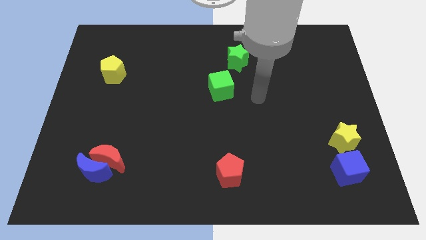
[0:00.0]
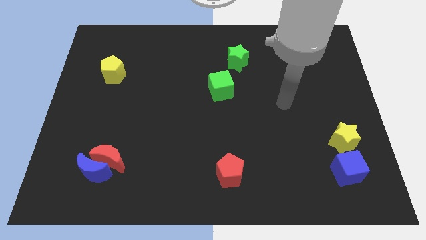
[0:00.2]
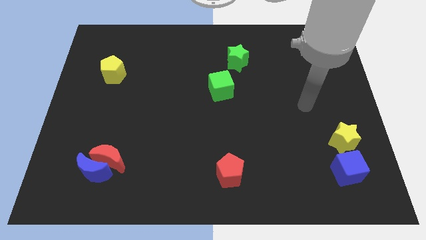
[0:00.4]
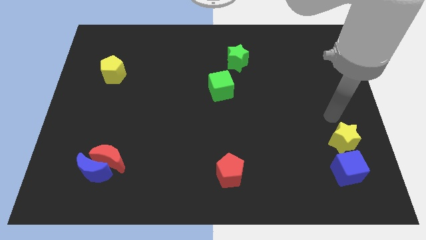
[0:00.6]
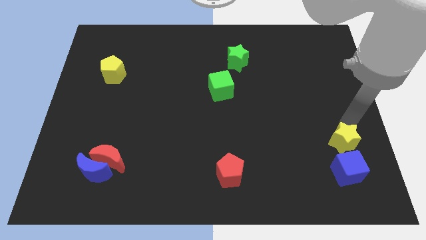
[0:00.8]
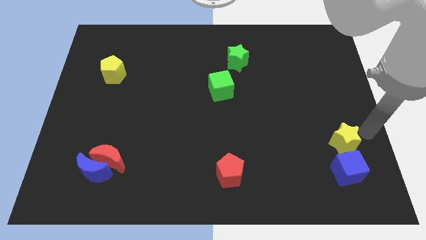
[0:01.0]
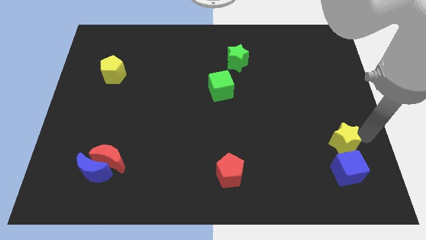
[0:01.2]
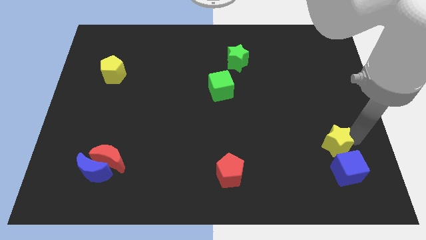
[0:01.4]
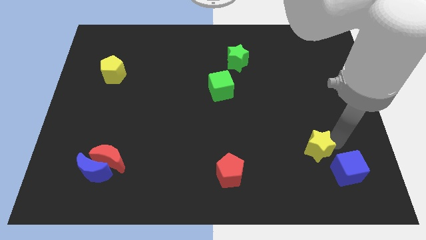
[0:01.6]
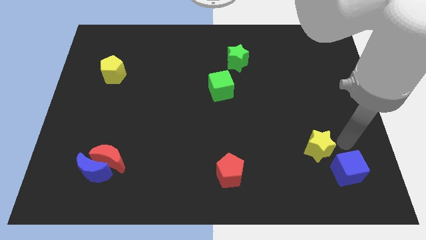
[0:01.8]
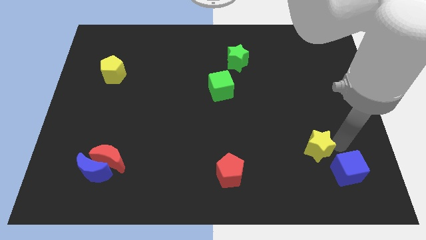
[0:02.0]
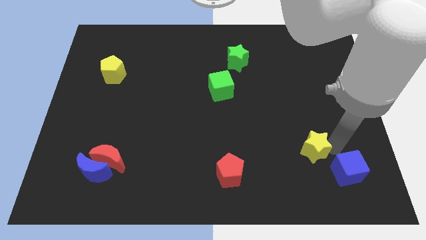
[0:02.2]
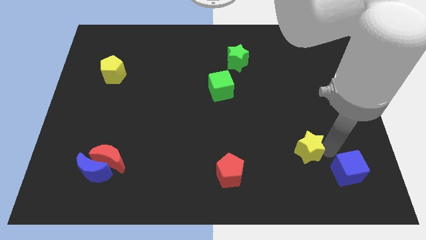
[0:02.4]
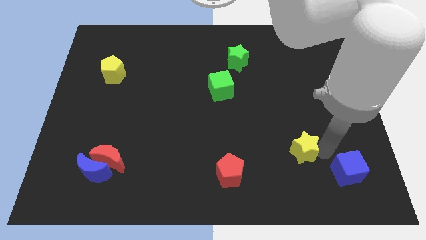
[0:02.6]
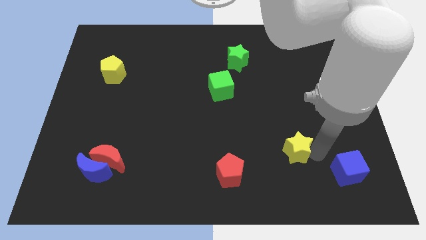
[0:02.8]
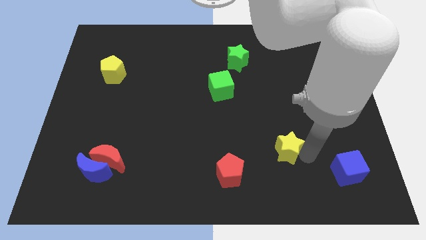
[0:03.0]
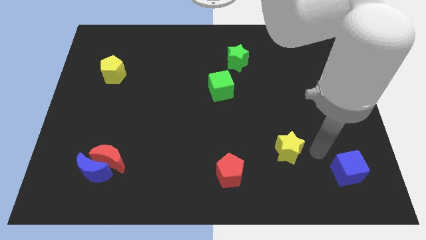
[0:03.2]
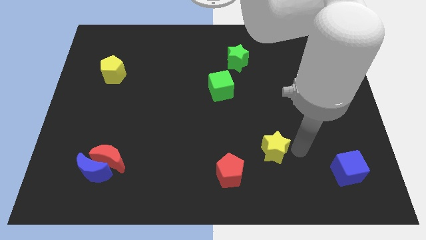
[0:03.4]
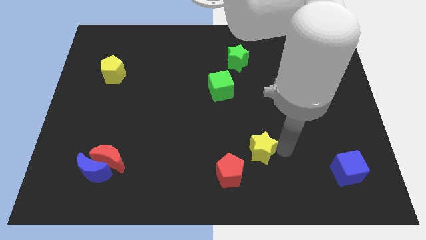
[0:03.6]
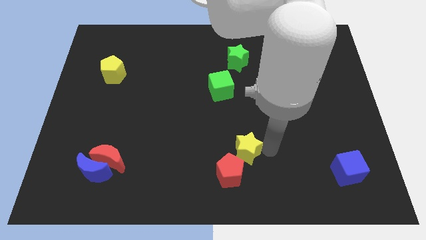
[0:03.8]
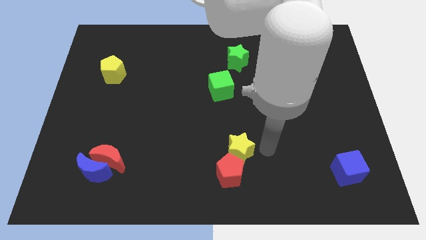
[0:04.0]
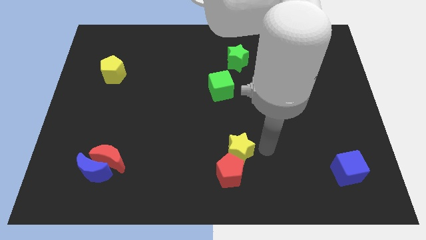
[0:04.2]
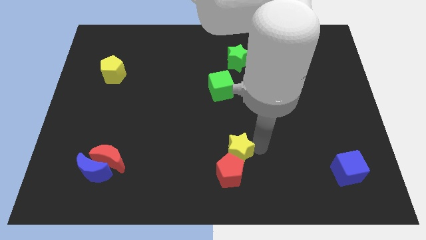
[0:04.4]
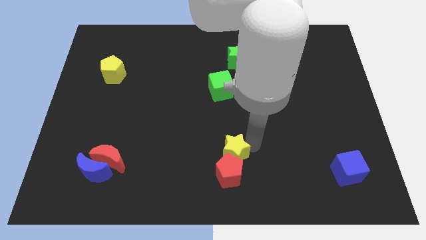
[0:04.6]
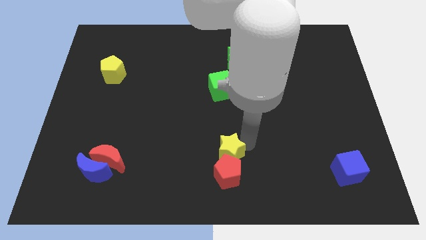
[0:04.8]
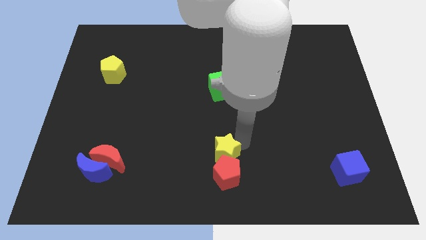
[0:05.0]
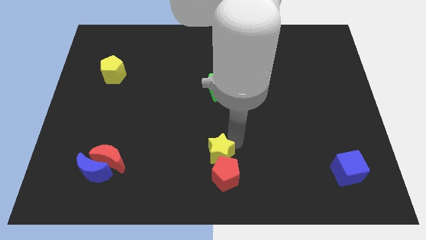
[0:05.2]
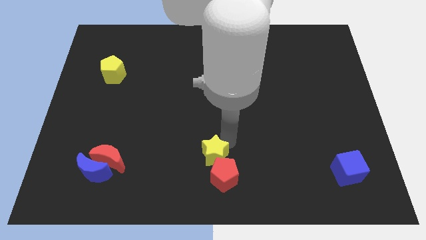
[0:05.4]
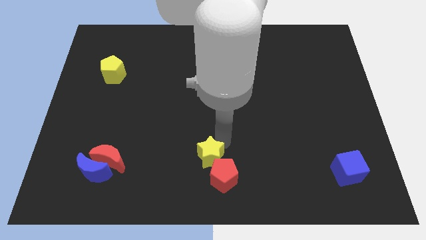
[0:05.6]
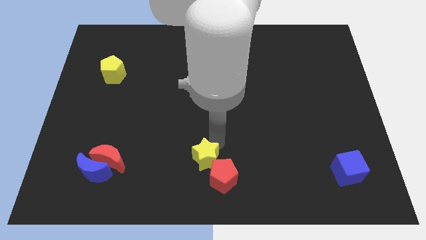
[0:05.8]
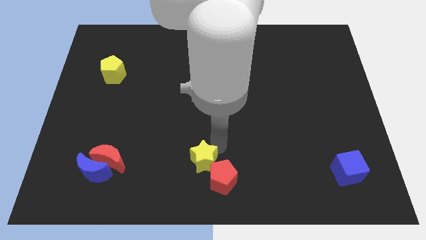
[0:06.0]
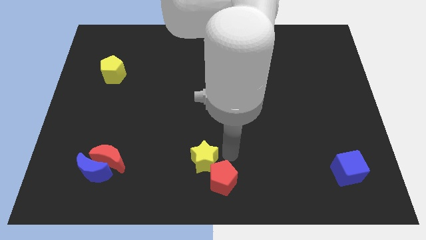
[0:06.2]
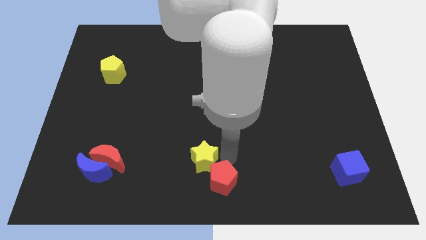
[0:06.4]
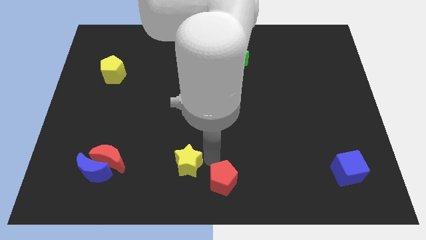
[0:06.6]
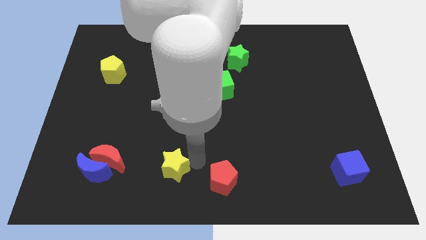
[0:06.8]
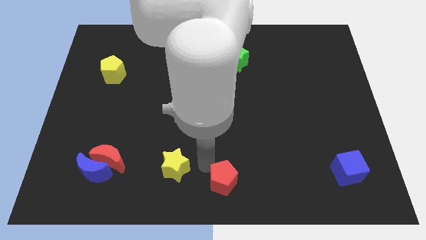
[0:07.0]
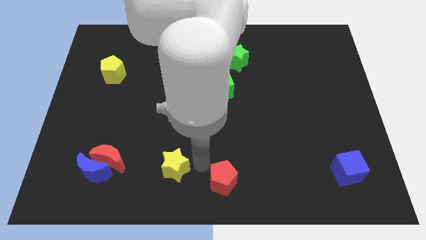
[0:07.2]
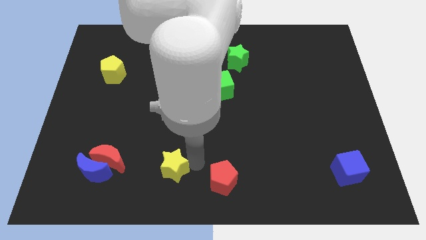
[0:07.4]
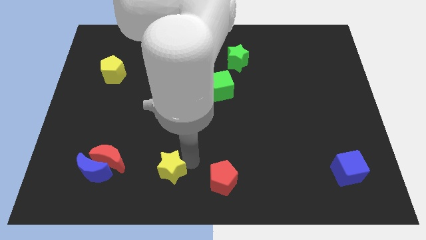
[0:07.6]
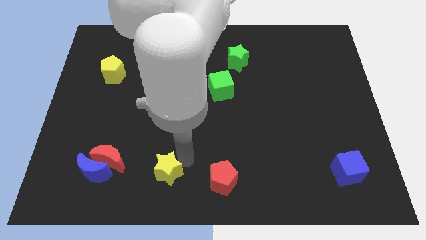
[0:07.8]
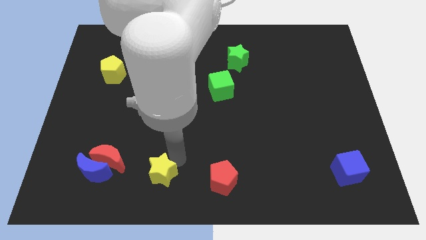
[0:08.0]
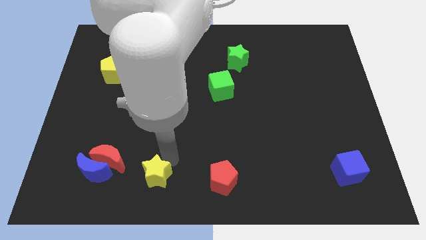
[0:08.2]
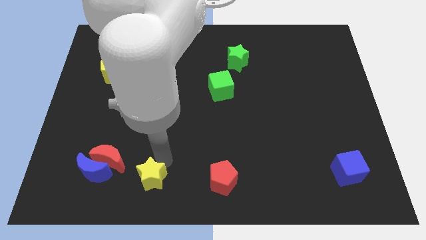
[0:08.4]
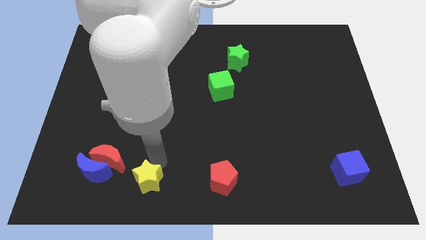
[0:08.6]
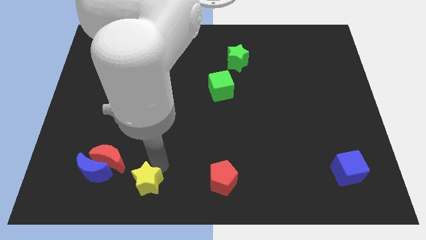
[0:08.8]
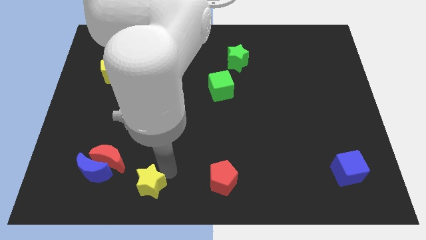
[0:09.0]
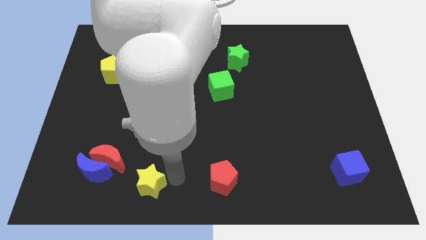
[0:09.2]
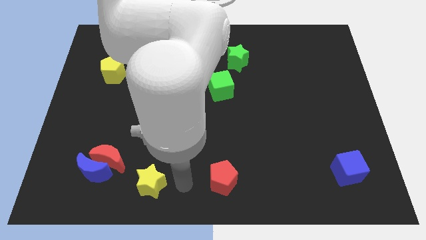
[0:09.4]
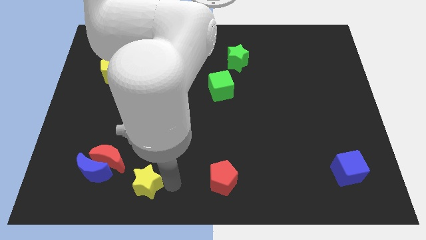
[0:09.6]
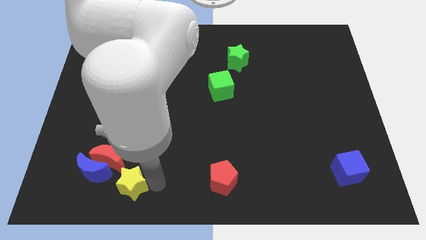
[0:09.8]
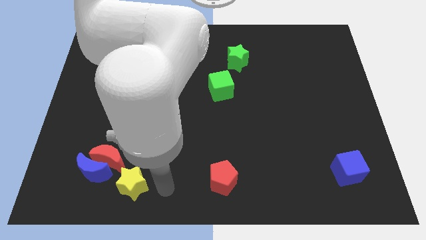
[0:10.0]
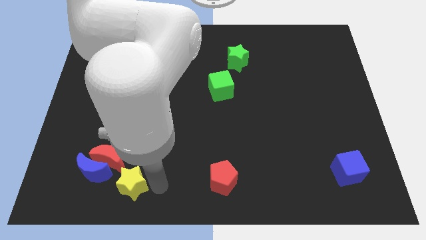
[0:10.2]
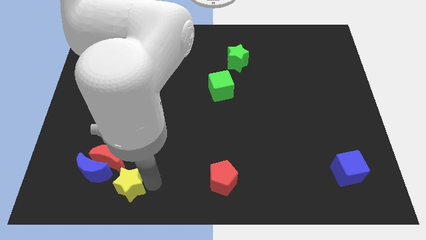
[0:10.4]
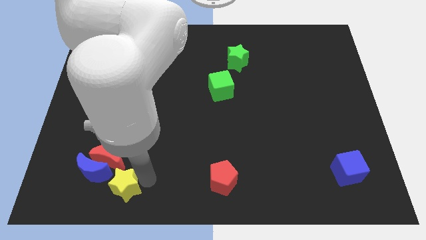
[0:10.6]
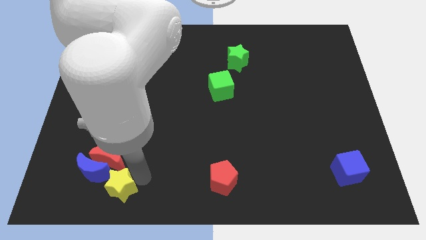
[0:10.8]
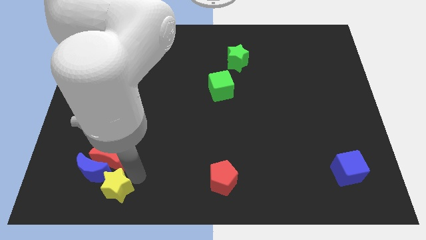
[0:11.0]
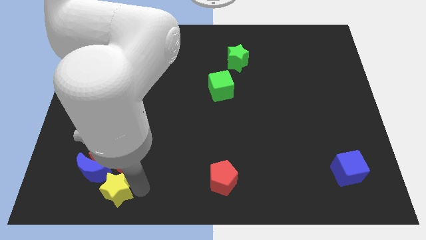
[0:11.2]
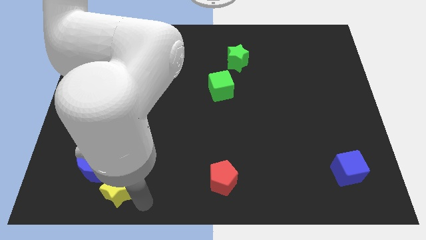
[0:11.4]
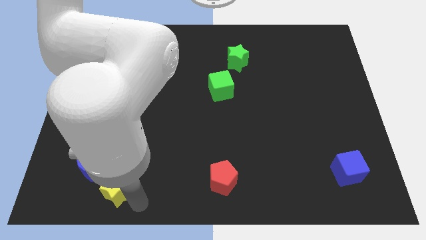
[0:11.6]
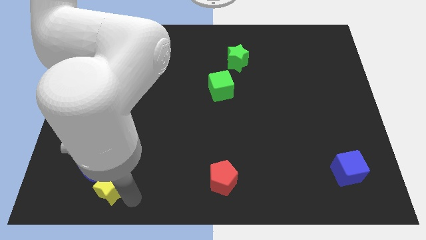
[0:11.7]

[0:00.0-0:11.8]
put the yellow star next to the blue moon

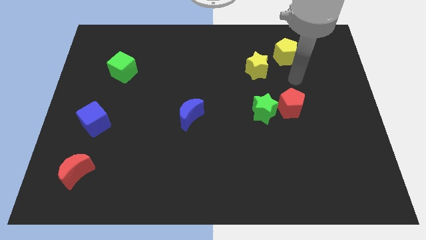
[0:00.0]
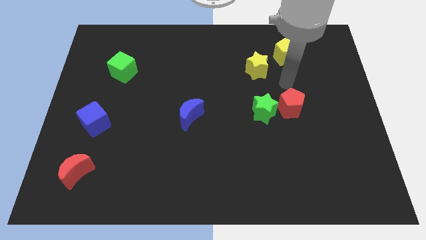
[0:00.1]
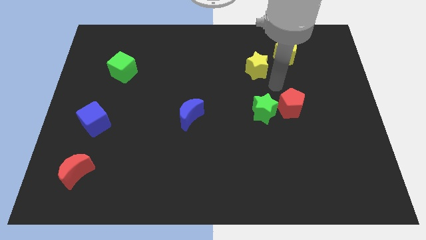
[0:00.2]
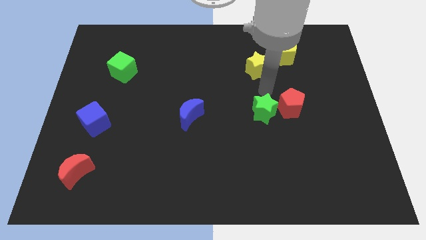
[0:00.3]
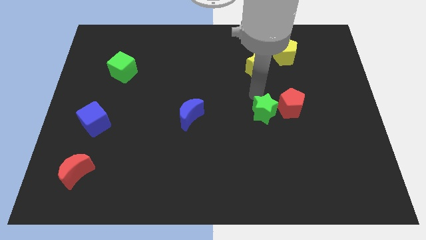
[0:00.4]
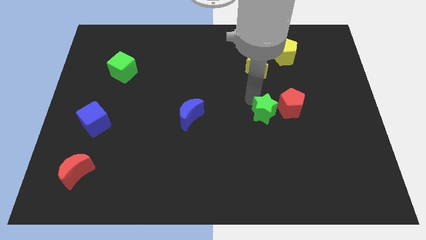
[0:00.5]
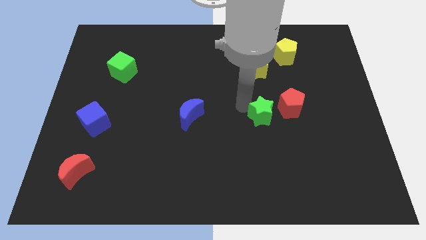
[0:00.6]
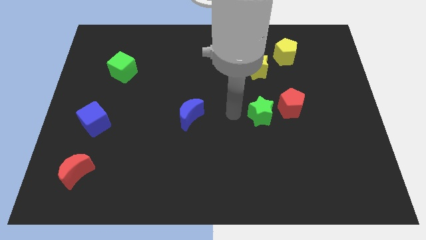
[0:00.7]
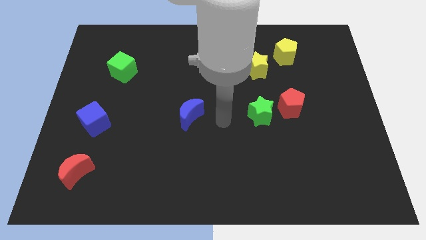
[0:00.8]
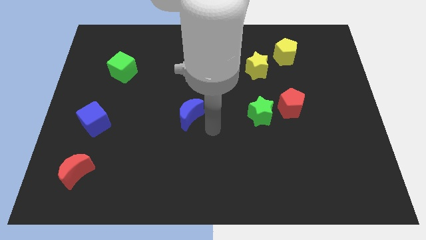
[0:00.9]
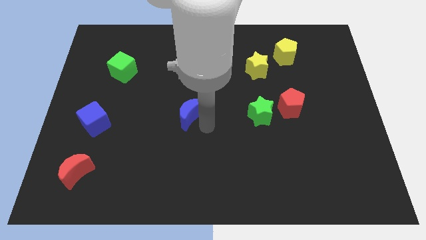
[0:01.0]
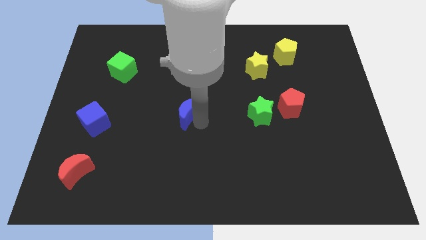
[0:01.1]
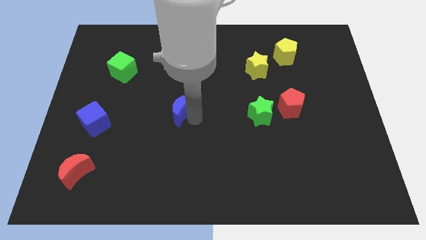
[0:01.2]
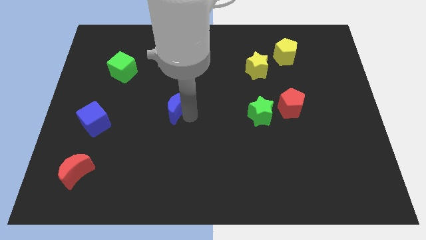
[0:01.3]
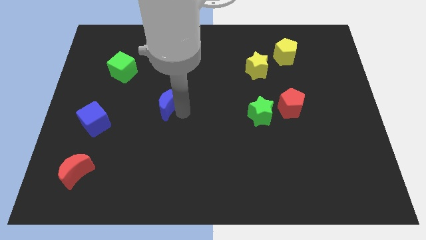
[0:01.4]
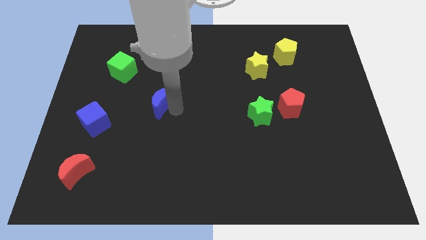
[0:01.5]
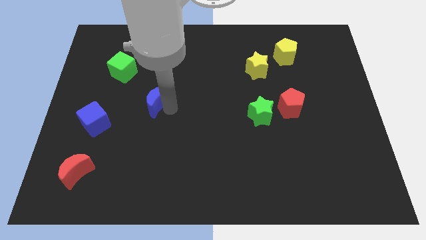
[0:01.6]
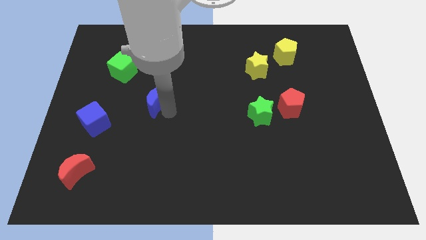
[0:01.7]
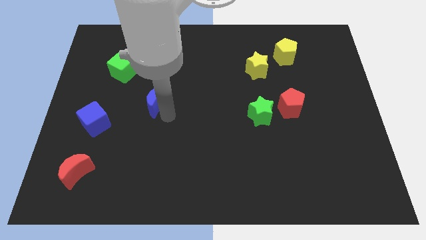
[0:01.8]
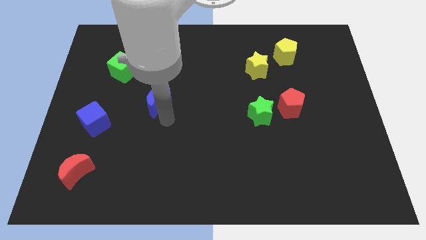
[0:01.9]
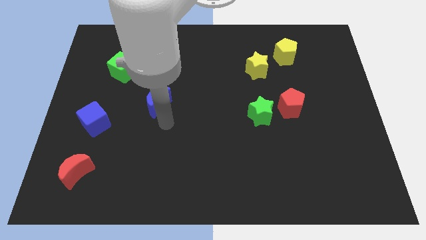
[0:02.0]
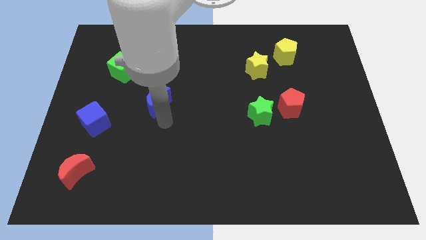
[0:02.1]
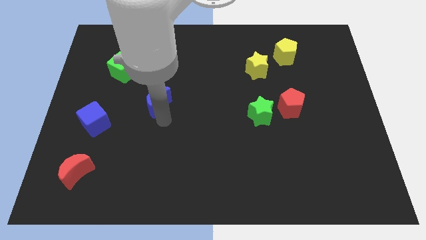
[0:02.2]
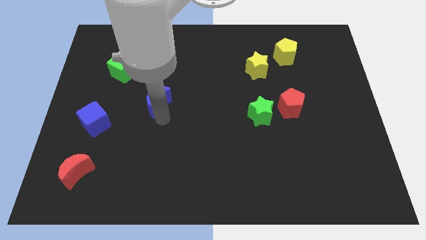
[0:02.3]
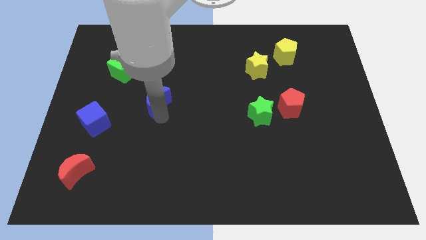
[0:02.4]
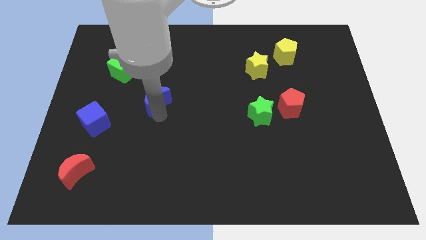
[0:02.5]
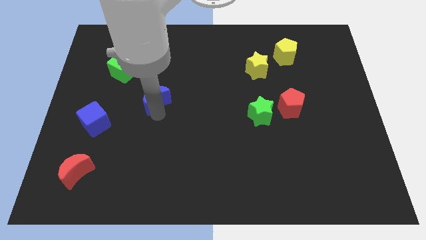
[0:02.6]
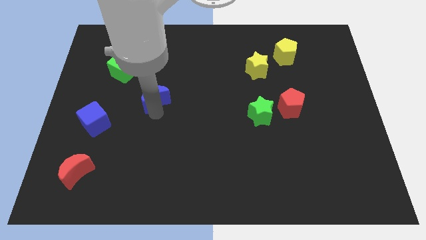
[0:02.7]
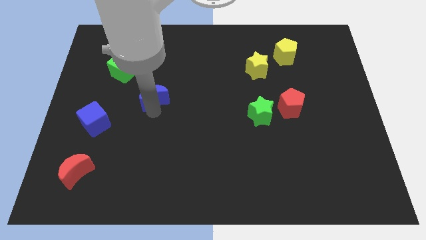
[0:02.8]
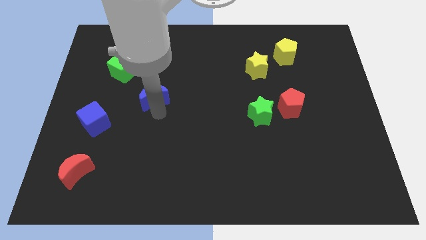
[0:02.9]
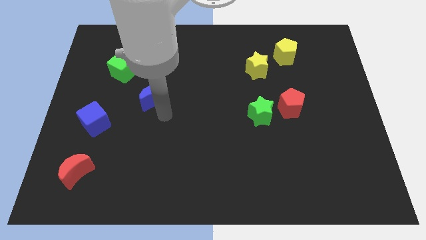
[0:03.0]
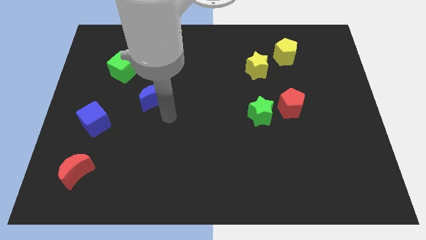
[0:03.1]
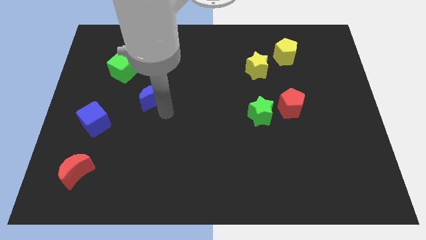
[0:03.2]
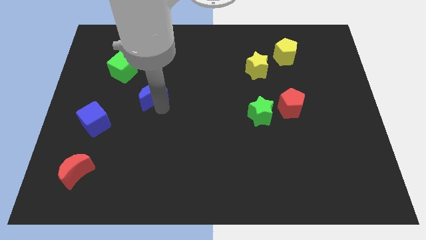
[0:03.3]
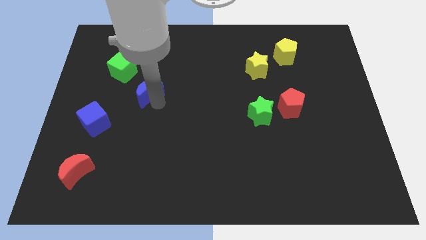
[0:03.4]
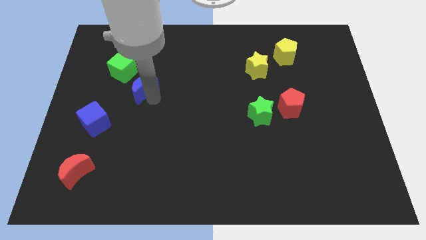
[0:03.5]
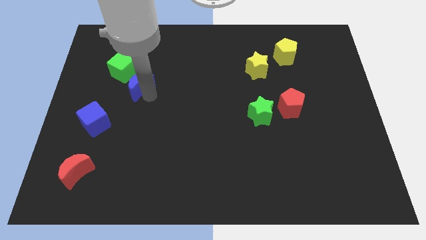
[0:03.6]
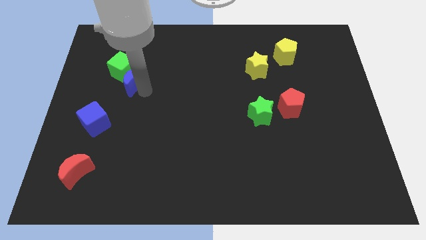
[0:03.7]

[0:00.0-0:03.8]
put the blue moon next to the green cube
